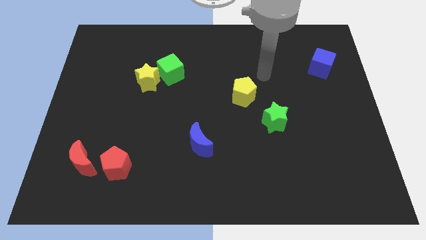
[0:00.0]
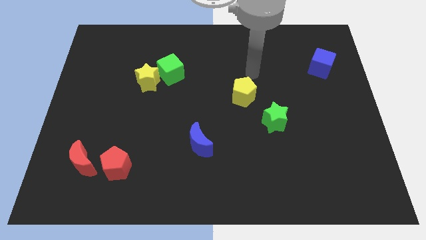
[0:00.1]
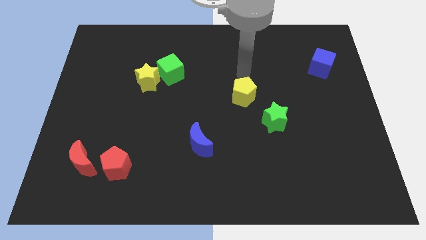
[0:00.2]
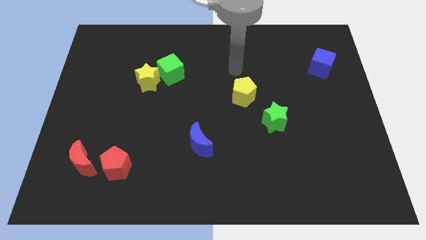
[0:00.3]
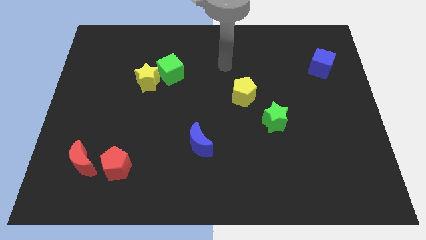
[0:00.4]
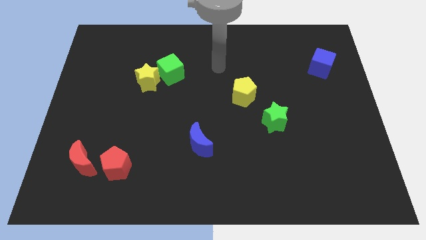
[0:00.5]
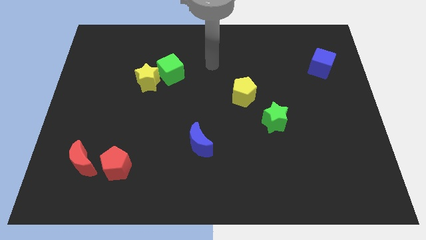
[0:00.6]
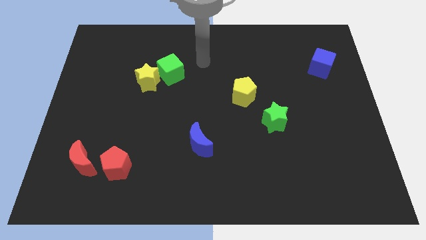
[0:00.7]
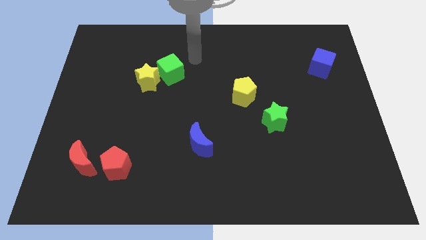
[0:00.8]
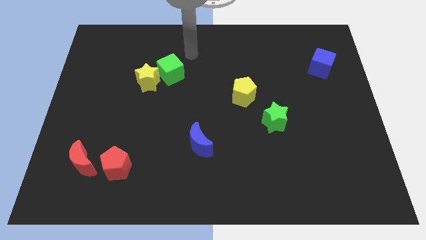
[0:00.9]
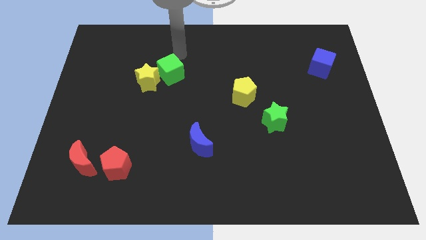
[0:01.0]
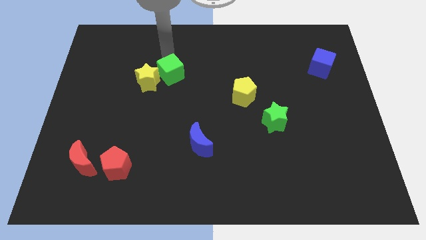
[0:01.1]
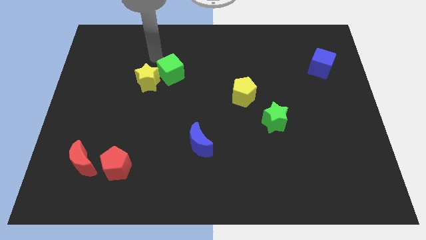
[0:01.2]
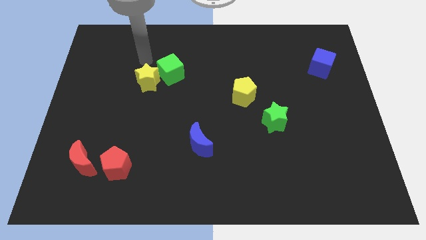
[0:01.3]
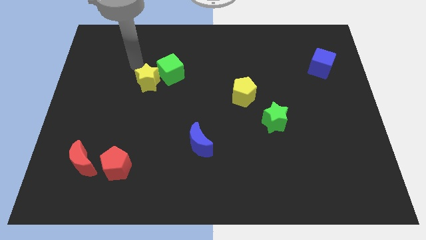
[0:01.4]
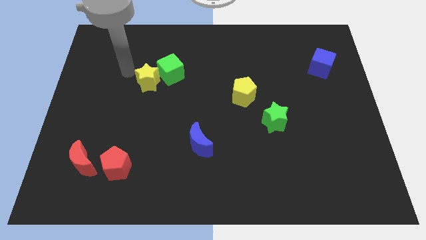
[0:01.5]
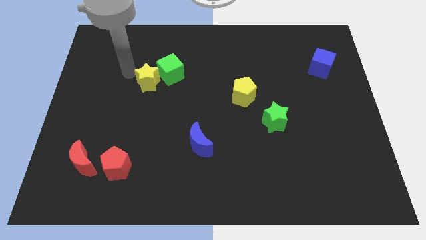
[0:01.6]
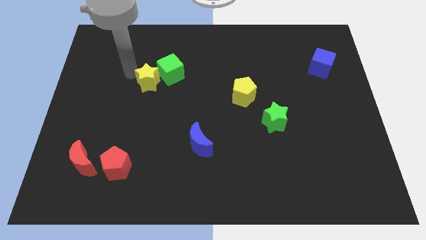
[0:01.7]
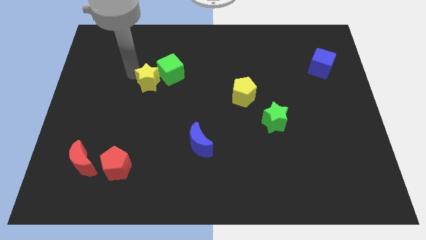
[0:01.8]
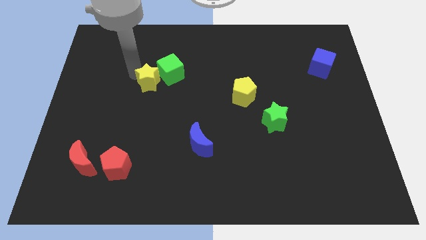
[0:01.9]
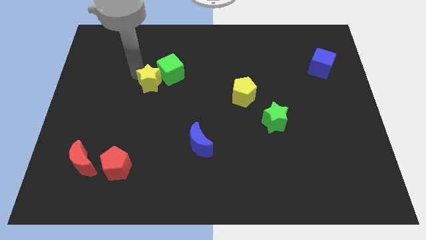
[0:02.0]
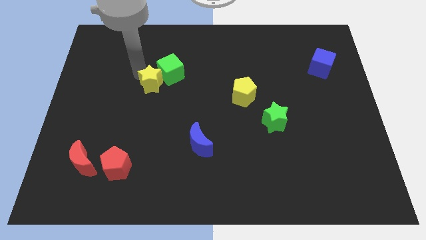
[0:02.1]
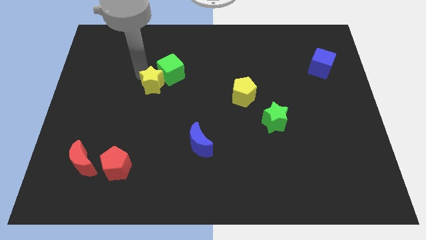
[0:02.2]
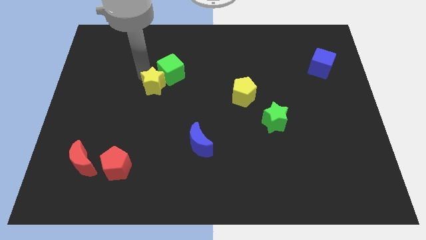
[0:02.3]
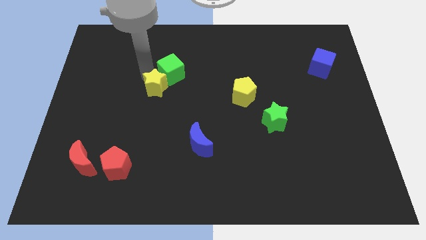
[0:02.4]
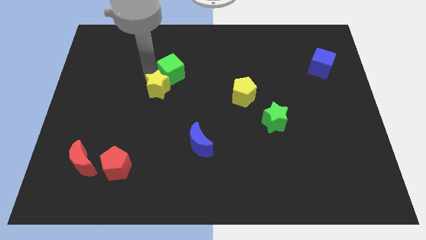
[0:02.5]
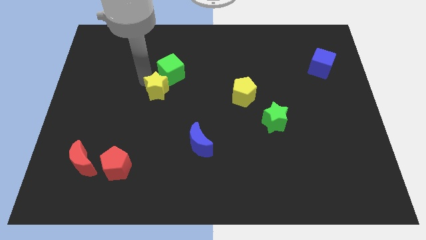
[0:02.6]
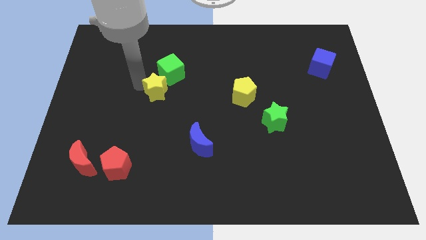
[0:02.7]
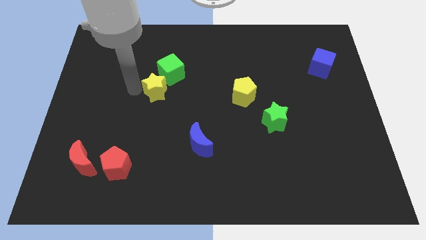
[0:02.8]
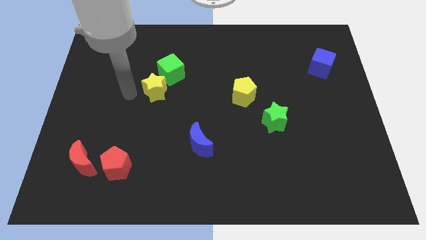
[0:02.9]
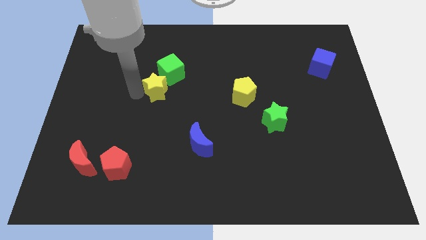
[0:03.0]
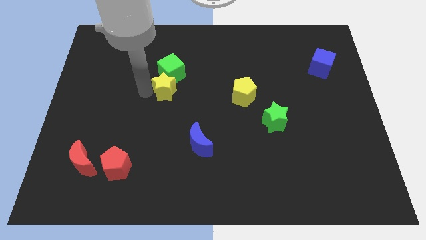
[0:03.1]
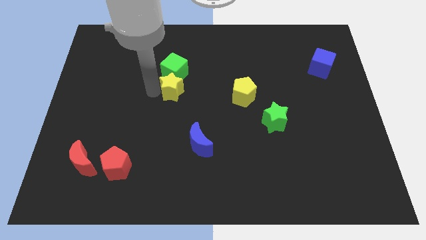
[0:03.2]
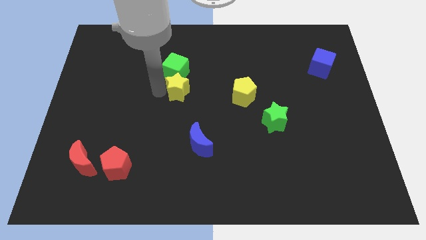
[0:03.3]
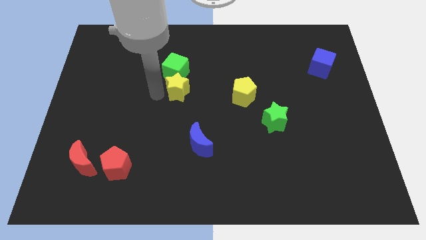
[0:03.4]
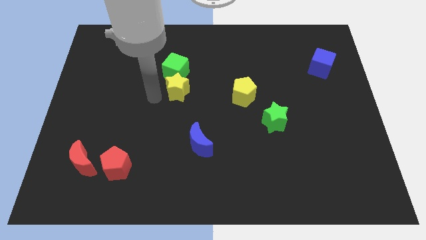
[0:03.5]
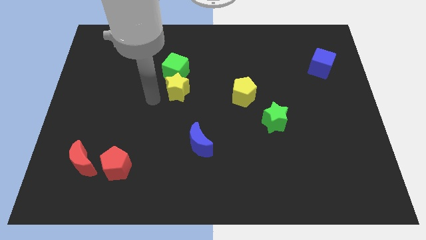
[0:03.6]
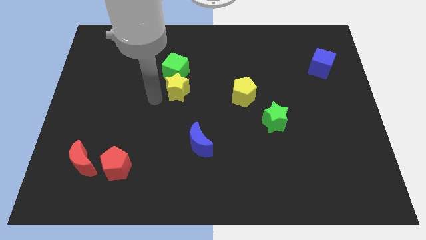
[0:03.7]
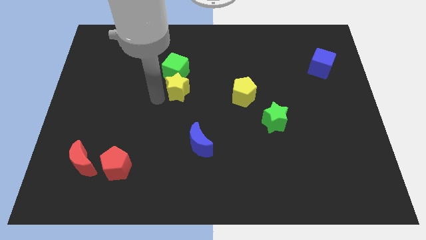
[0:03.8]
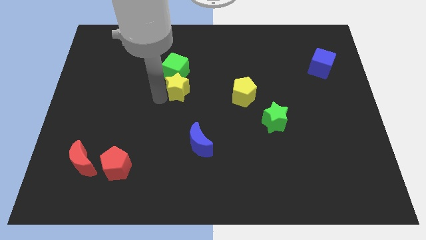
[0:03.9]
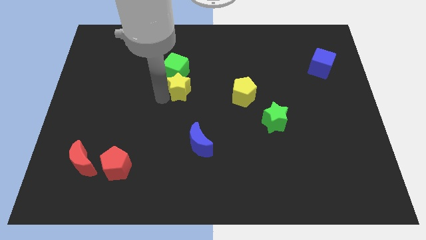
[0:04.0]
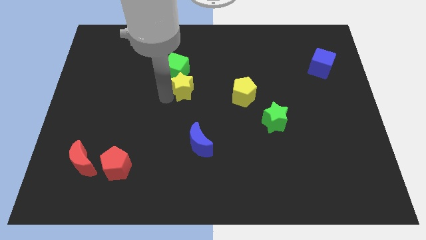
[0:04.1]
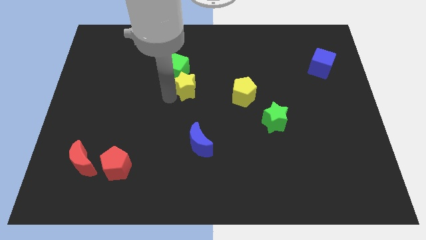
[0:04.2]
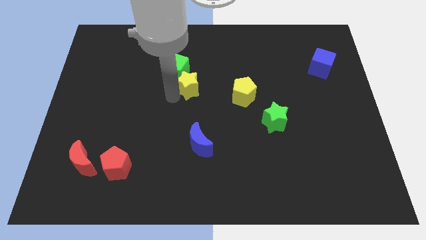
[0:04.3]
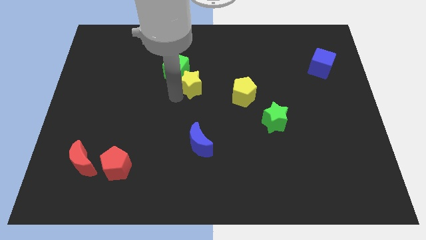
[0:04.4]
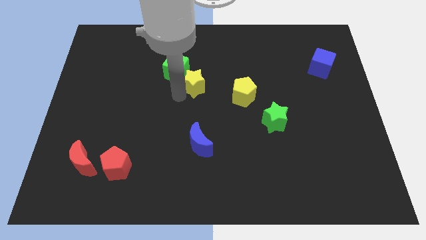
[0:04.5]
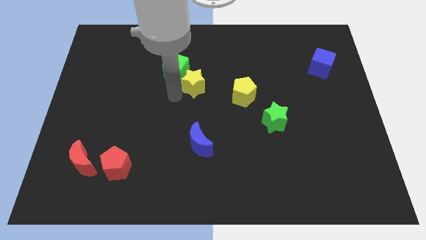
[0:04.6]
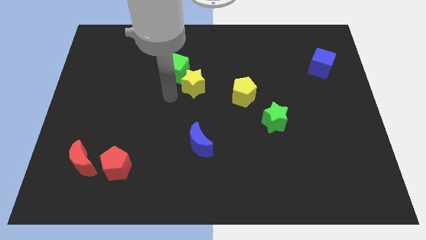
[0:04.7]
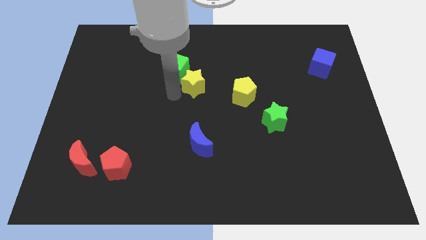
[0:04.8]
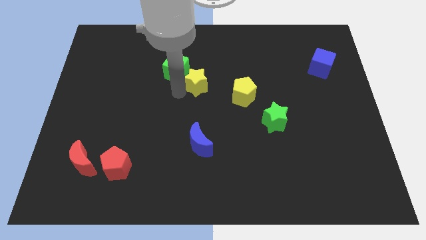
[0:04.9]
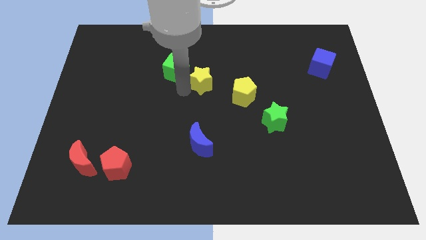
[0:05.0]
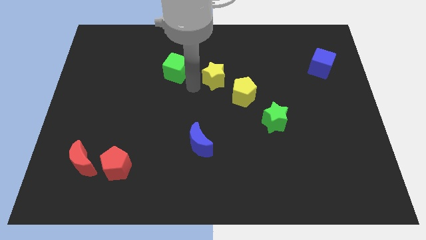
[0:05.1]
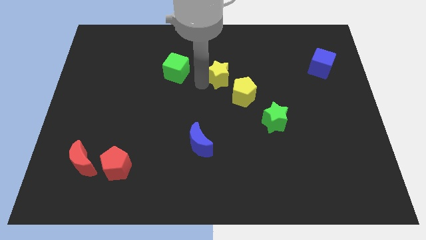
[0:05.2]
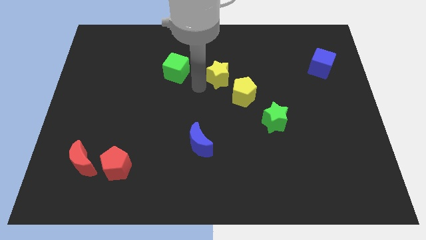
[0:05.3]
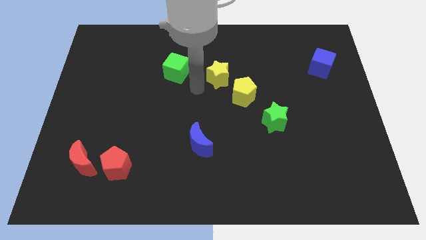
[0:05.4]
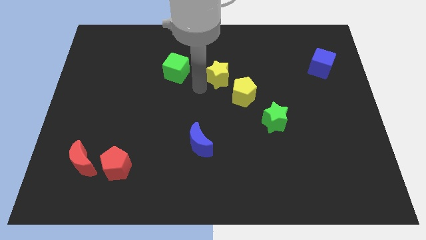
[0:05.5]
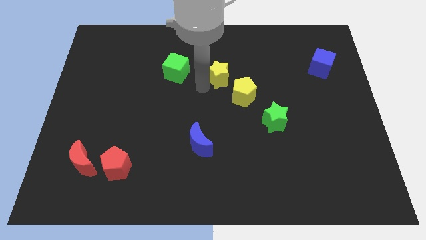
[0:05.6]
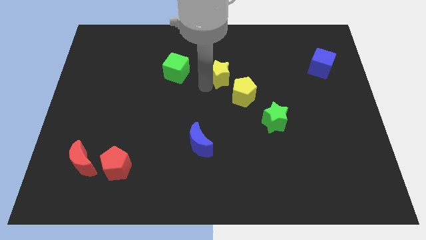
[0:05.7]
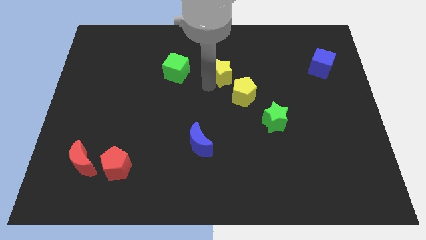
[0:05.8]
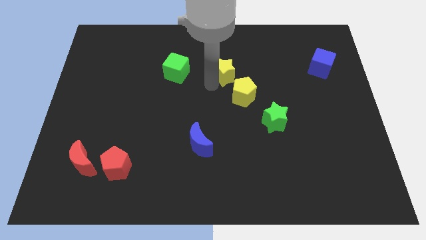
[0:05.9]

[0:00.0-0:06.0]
move the yellow star to the top side of the yellow pentagon
